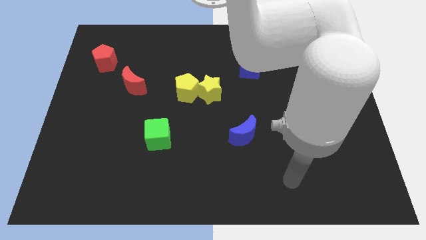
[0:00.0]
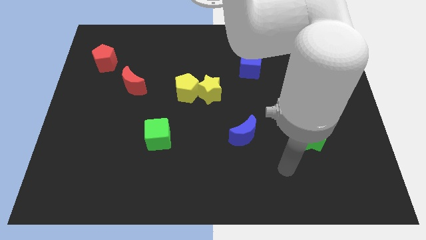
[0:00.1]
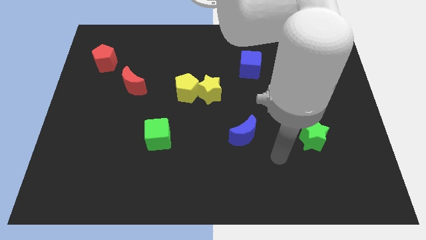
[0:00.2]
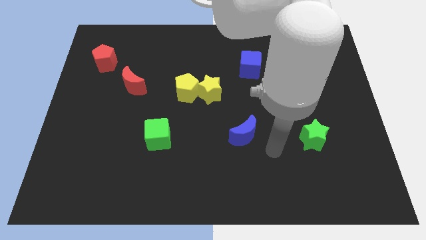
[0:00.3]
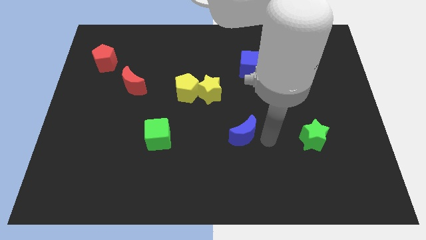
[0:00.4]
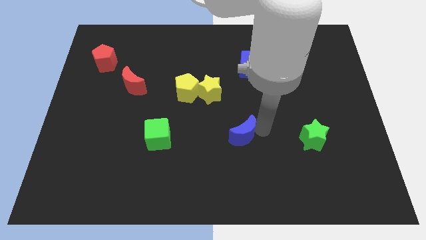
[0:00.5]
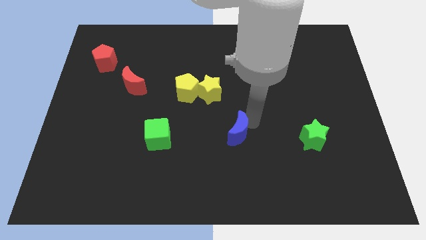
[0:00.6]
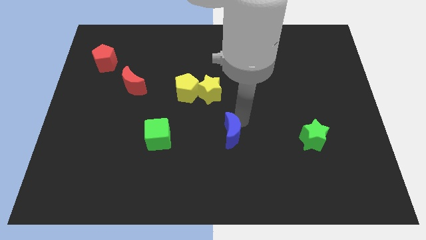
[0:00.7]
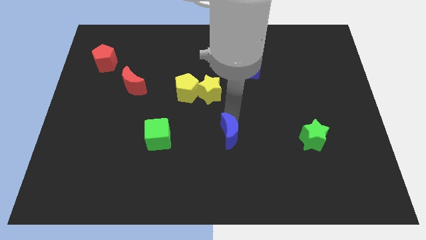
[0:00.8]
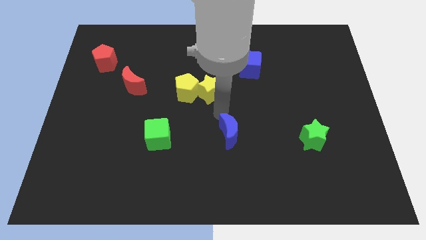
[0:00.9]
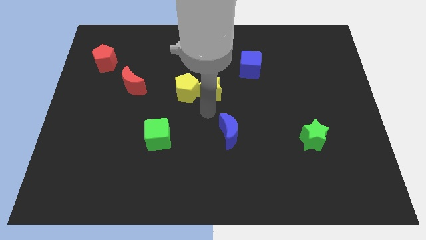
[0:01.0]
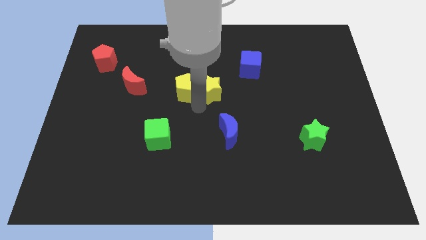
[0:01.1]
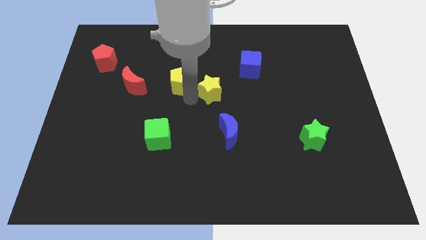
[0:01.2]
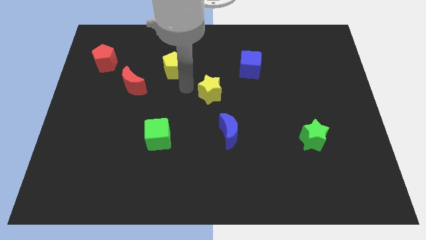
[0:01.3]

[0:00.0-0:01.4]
move the yellow star away from the yellow pentagon

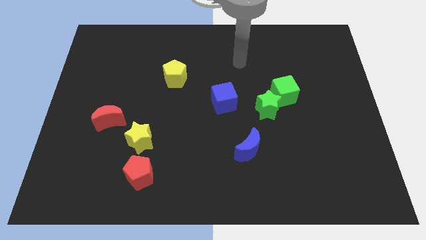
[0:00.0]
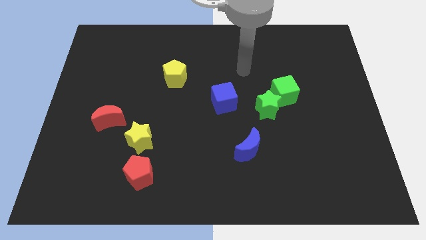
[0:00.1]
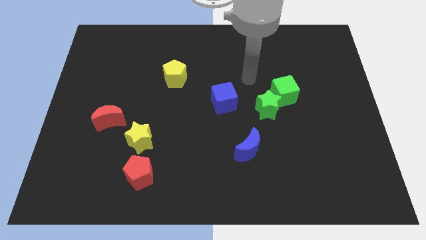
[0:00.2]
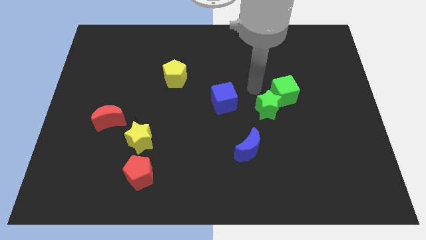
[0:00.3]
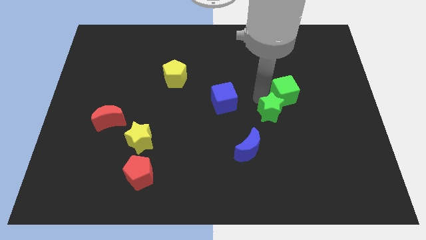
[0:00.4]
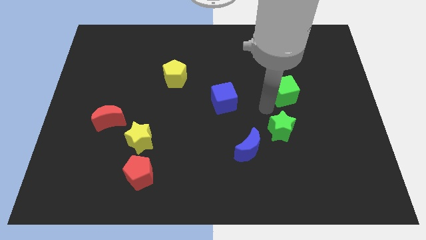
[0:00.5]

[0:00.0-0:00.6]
move the green cube away from the green star

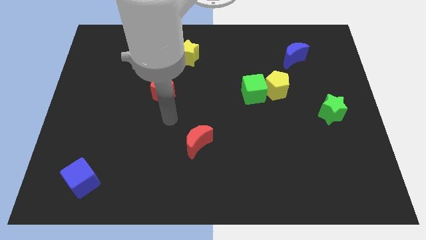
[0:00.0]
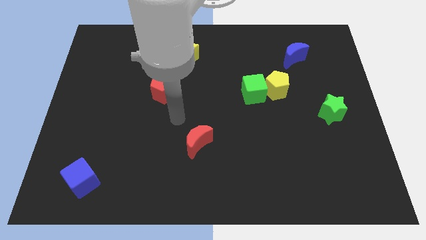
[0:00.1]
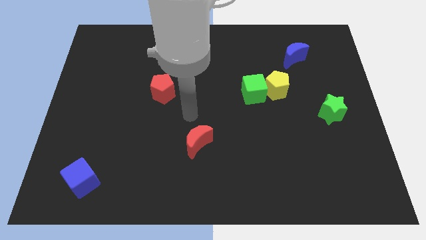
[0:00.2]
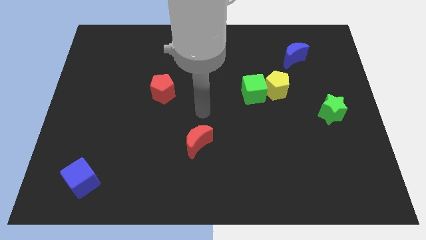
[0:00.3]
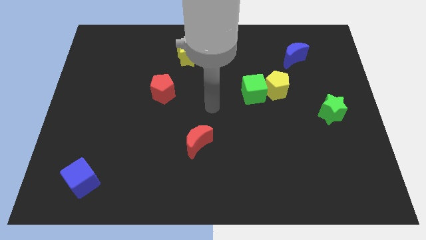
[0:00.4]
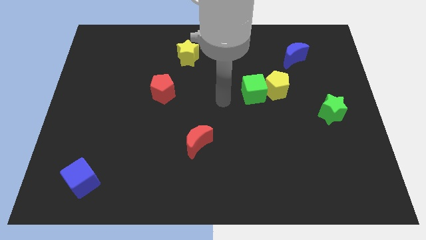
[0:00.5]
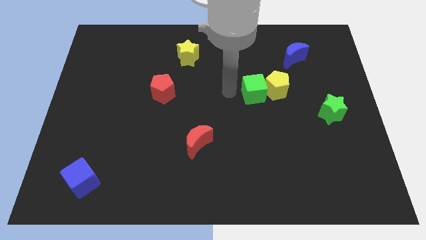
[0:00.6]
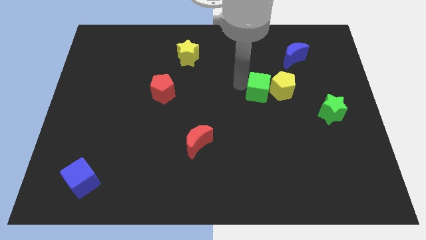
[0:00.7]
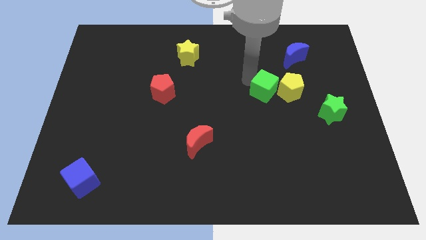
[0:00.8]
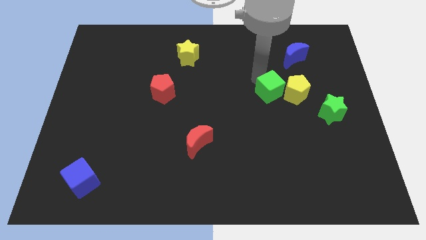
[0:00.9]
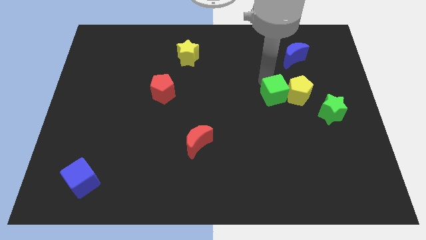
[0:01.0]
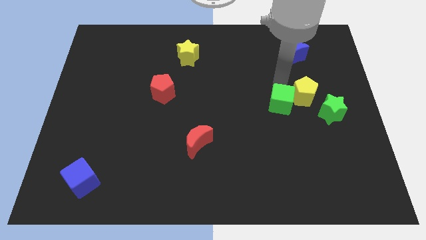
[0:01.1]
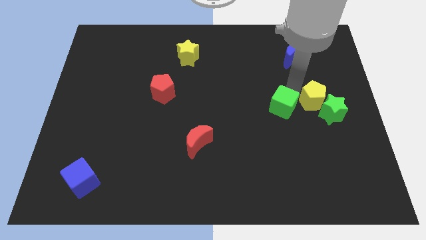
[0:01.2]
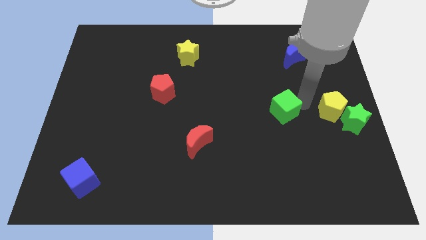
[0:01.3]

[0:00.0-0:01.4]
move the green cube away from the yellow pentagon

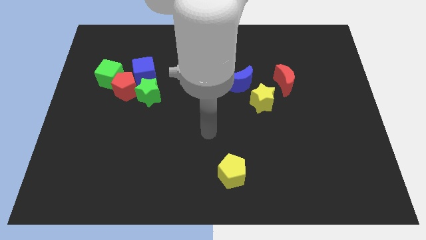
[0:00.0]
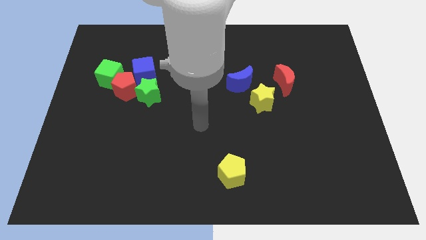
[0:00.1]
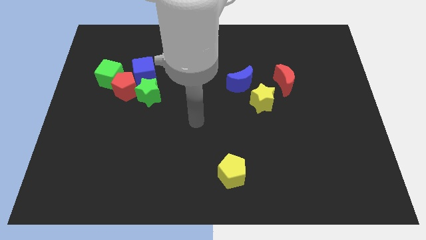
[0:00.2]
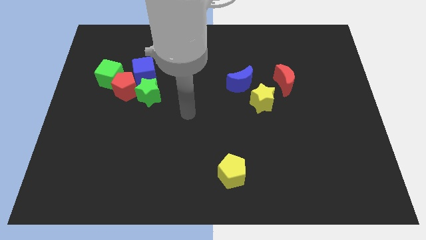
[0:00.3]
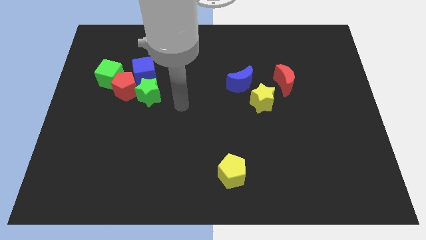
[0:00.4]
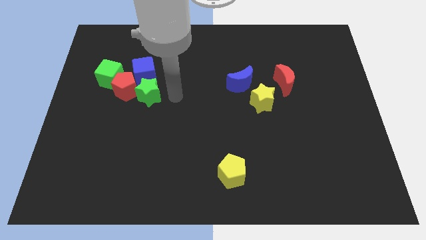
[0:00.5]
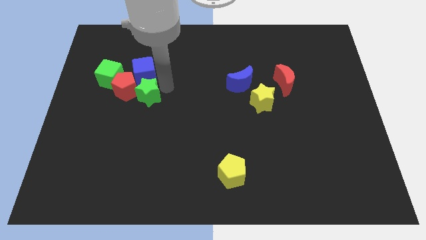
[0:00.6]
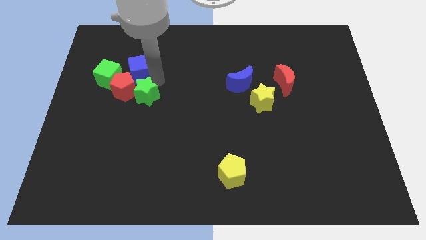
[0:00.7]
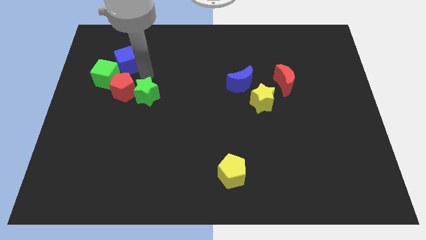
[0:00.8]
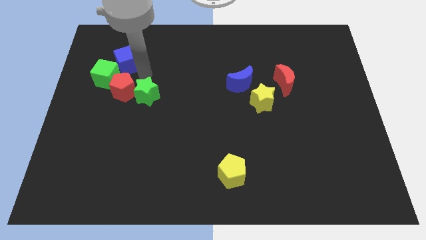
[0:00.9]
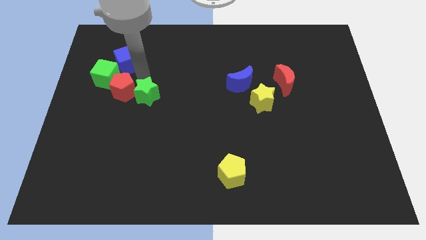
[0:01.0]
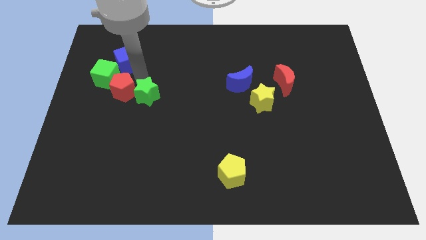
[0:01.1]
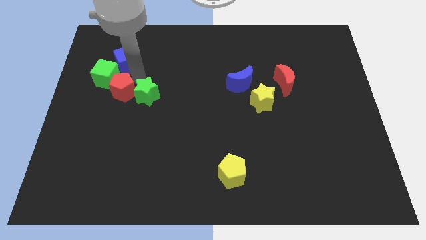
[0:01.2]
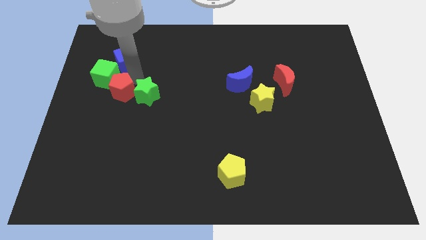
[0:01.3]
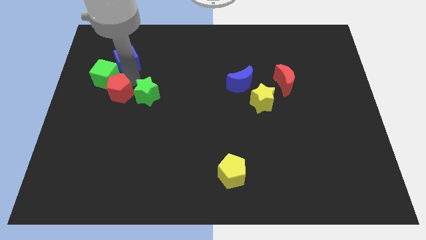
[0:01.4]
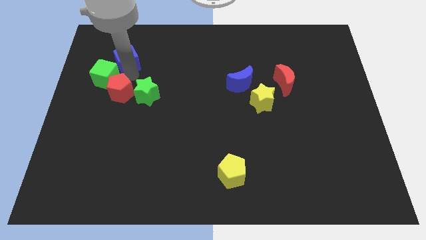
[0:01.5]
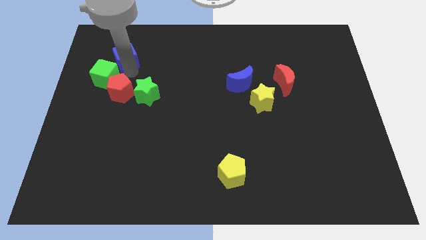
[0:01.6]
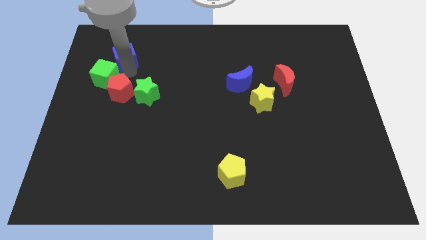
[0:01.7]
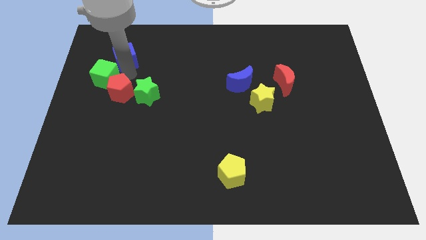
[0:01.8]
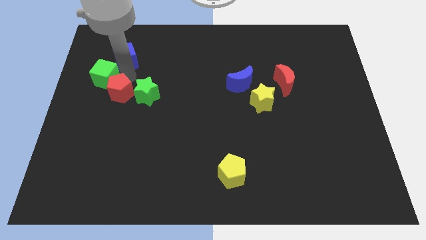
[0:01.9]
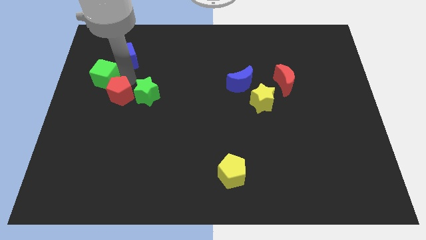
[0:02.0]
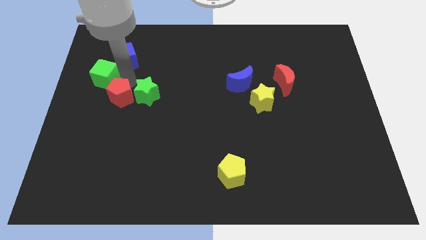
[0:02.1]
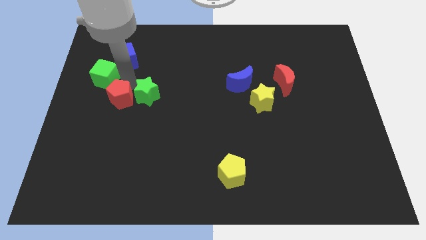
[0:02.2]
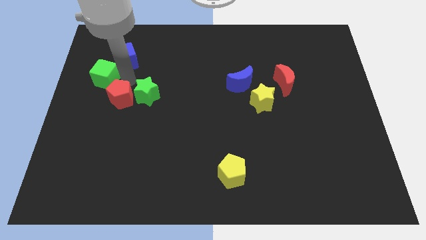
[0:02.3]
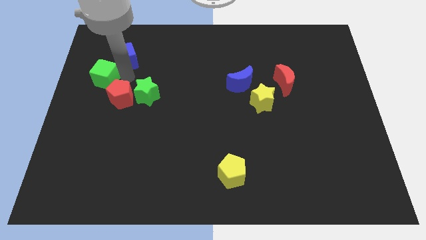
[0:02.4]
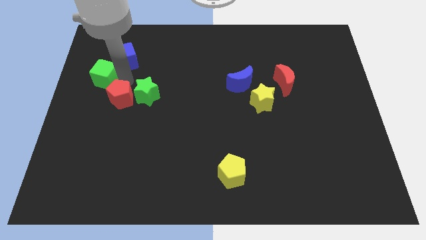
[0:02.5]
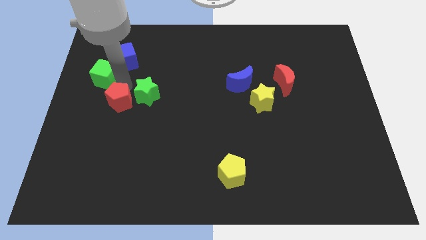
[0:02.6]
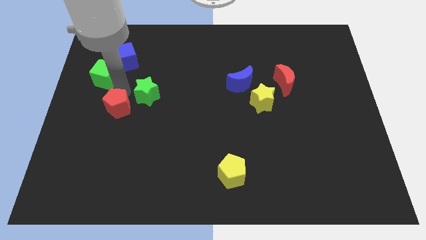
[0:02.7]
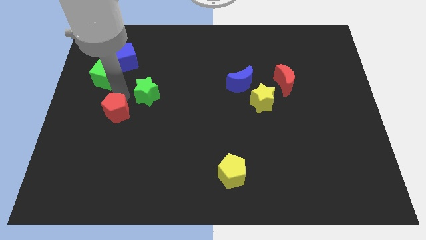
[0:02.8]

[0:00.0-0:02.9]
separate the red pentagon from the green cube, blue cube, and green star

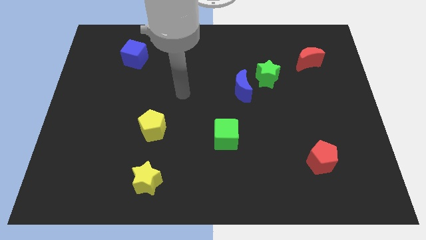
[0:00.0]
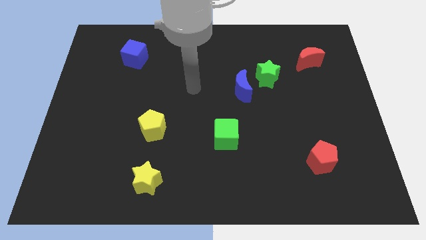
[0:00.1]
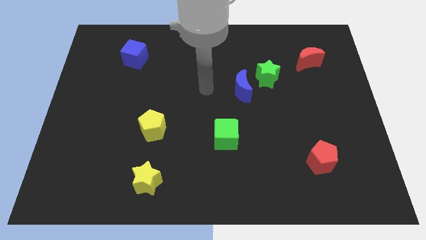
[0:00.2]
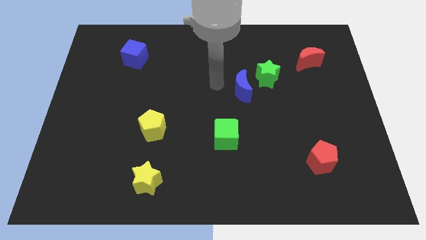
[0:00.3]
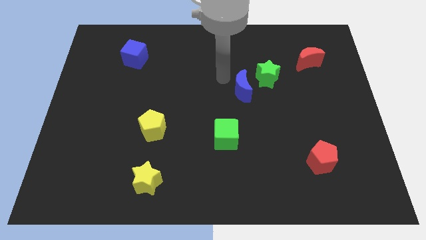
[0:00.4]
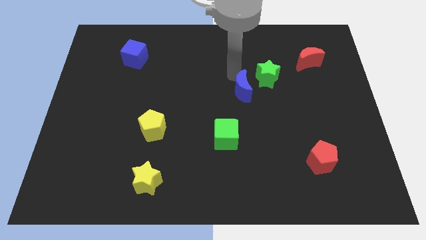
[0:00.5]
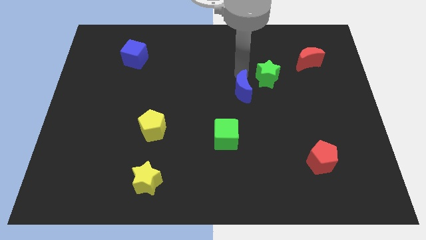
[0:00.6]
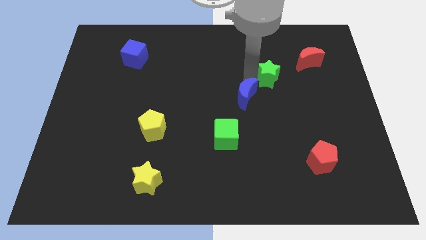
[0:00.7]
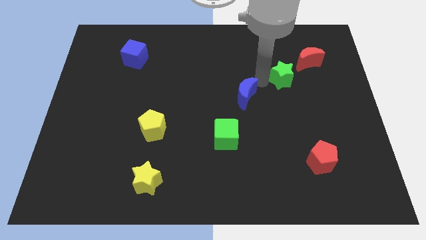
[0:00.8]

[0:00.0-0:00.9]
move the blue moon away from the green star

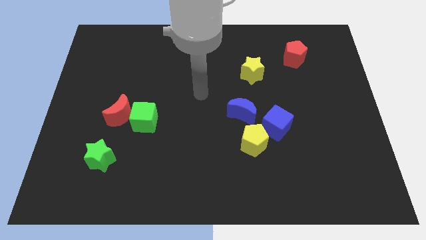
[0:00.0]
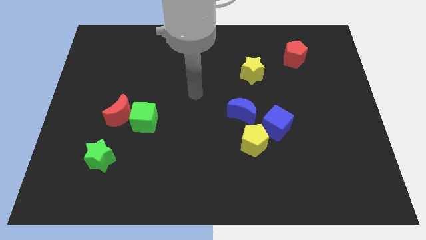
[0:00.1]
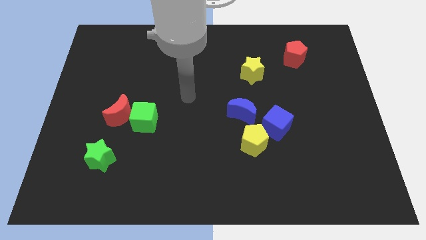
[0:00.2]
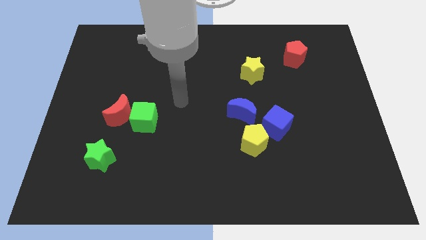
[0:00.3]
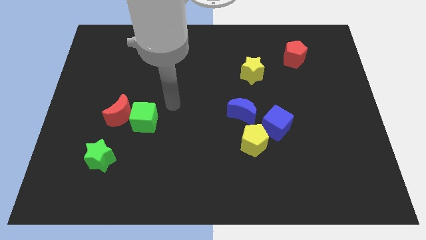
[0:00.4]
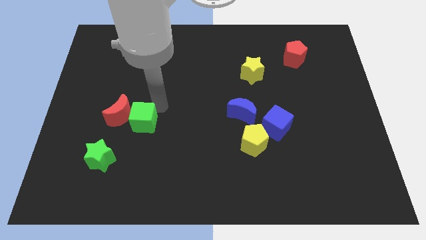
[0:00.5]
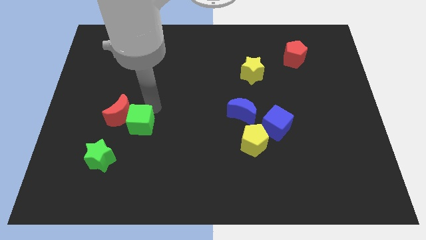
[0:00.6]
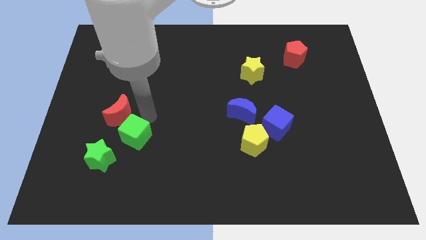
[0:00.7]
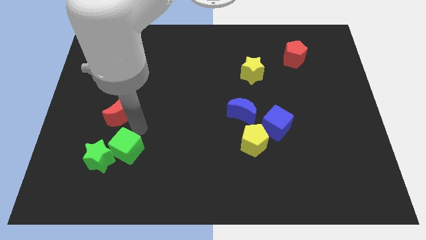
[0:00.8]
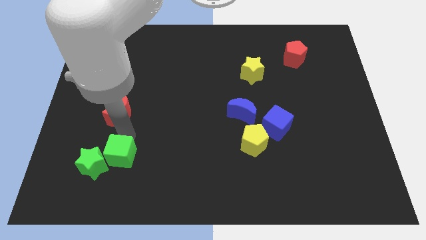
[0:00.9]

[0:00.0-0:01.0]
move the red moon away from the green cube

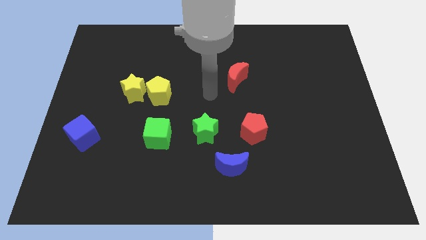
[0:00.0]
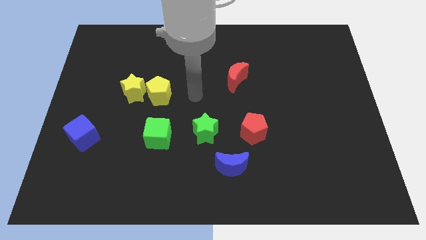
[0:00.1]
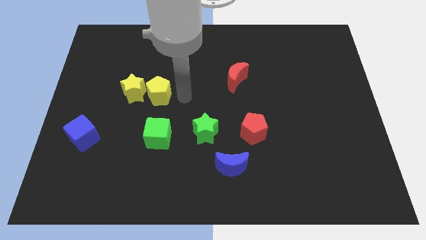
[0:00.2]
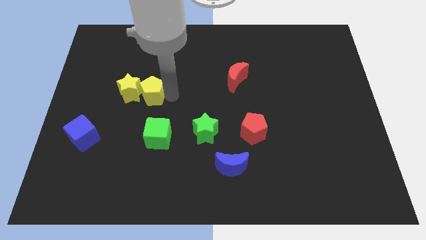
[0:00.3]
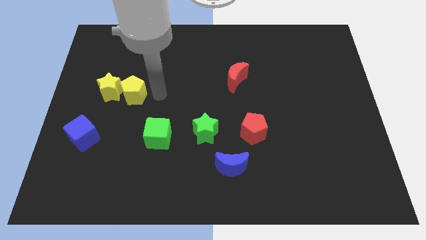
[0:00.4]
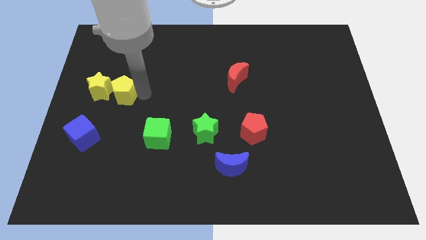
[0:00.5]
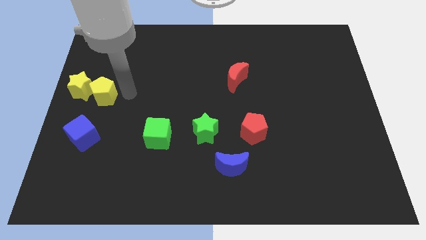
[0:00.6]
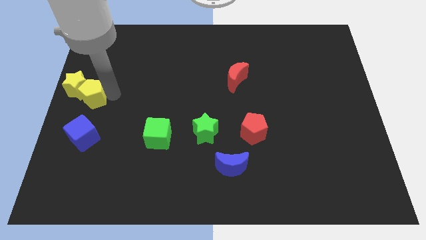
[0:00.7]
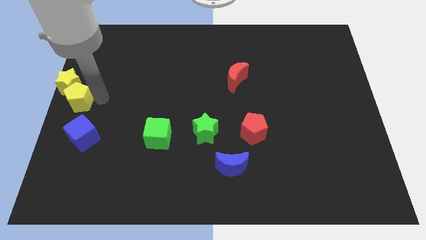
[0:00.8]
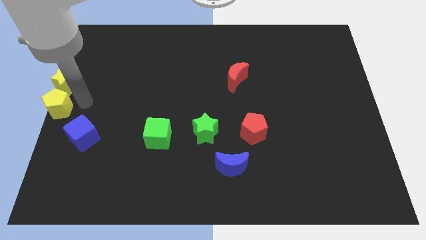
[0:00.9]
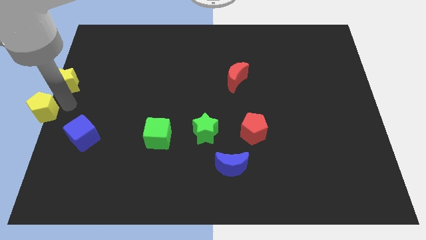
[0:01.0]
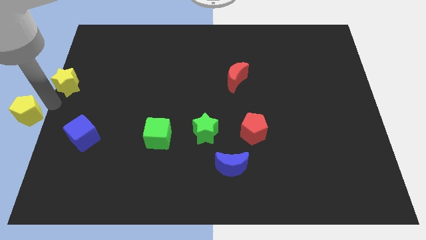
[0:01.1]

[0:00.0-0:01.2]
pull the yellow star apart from the yellow pentagon
